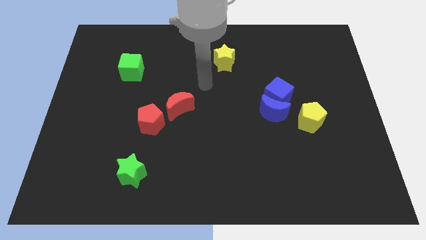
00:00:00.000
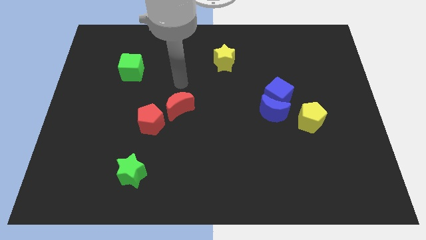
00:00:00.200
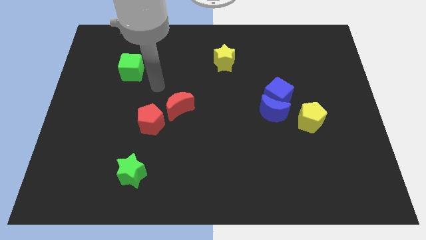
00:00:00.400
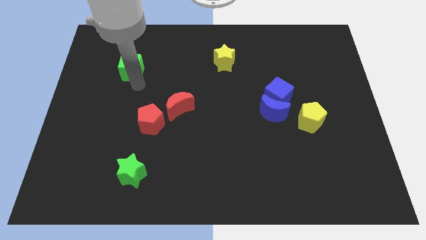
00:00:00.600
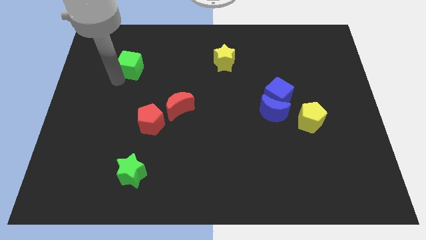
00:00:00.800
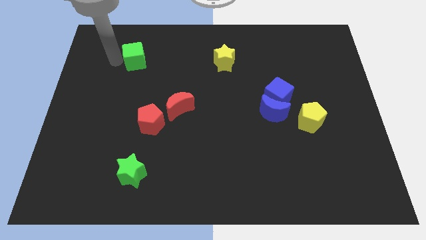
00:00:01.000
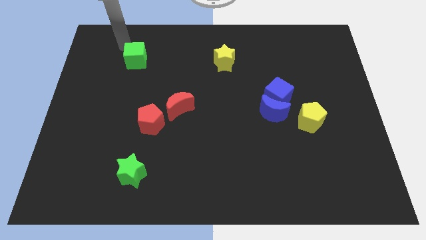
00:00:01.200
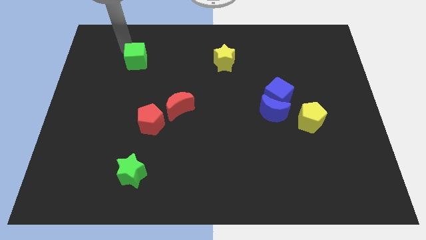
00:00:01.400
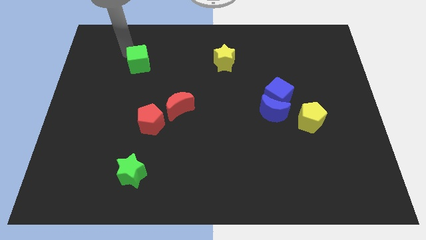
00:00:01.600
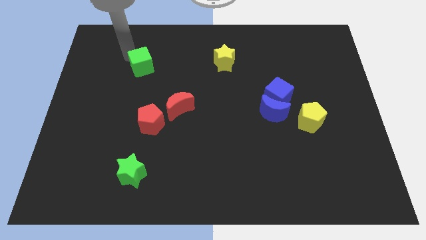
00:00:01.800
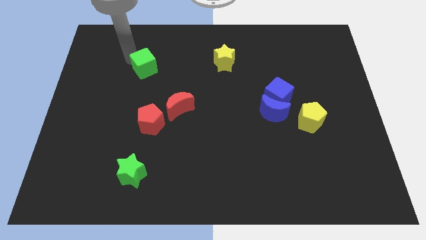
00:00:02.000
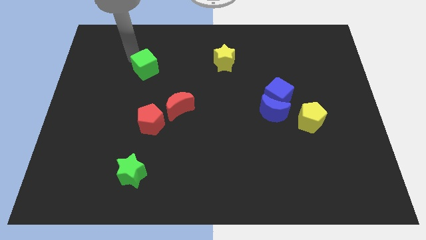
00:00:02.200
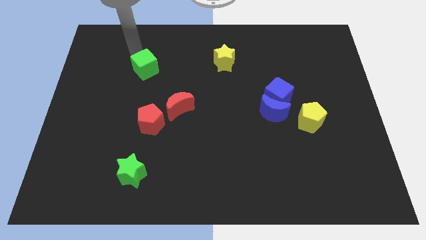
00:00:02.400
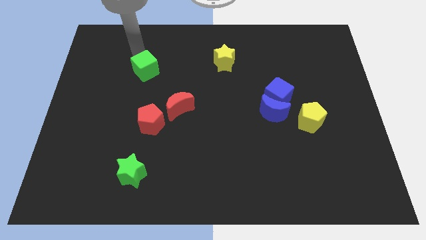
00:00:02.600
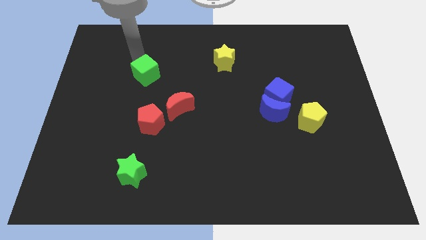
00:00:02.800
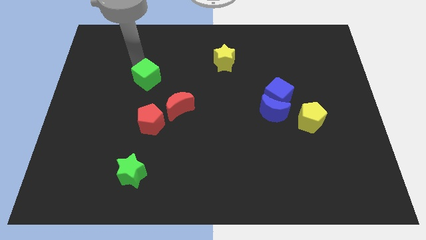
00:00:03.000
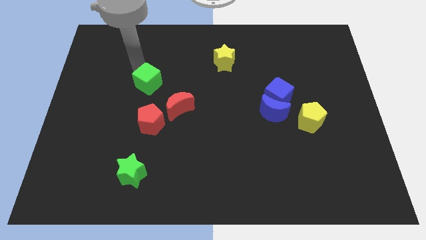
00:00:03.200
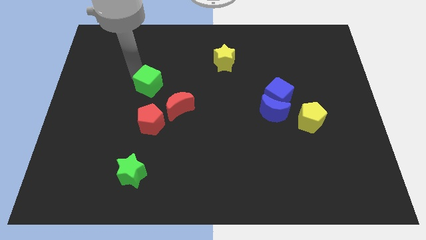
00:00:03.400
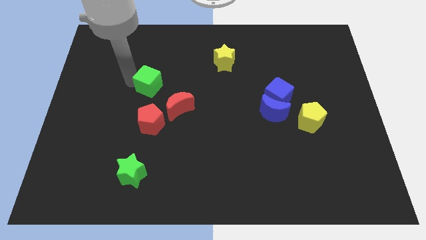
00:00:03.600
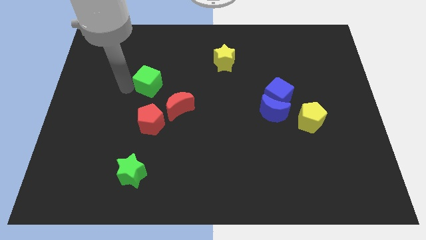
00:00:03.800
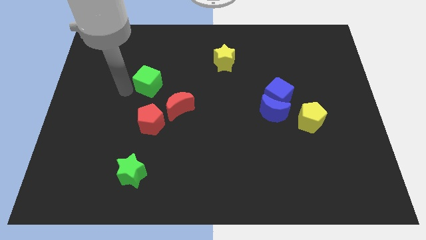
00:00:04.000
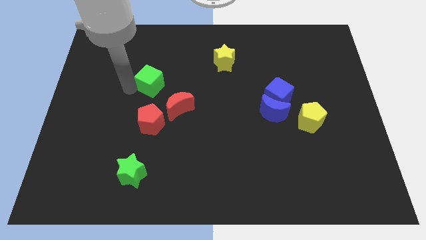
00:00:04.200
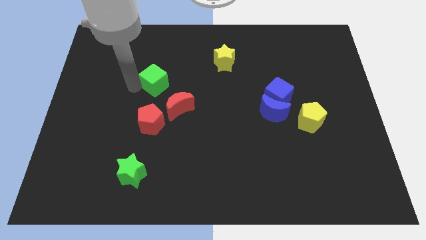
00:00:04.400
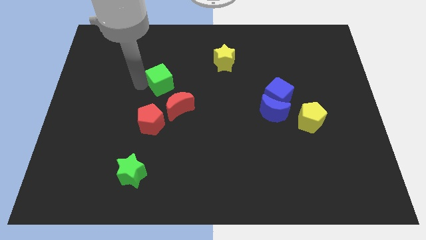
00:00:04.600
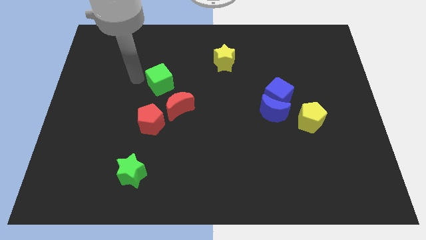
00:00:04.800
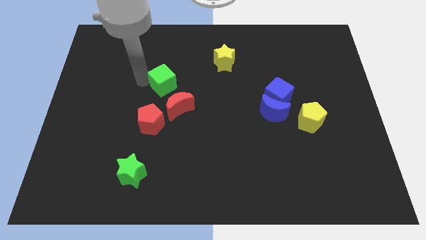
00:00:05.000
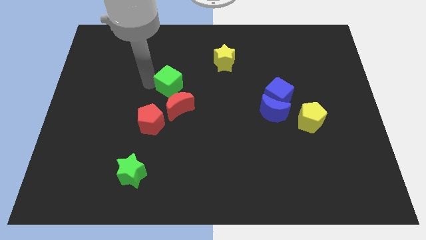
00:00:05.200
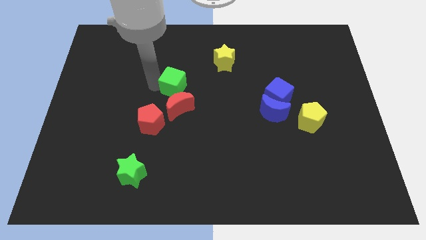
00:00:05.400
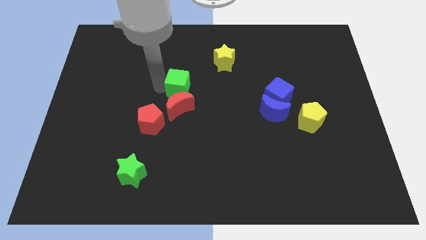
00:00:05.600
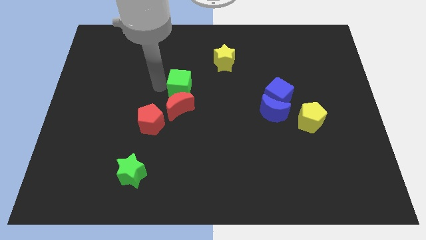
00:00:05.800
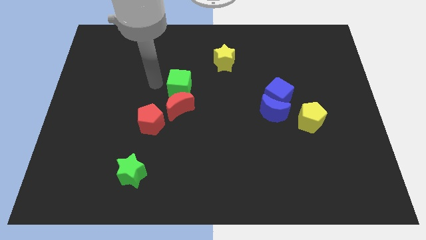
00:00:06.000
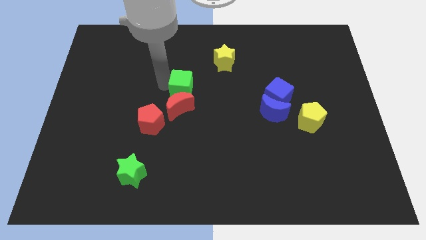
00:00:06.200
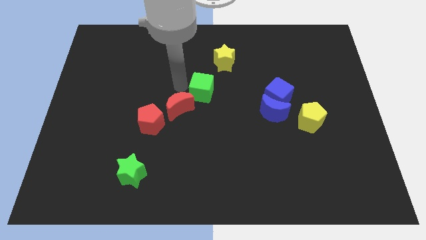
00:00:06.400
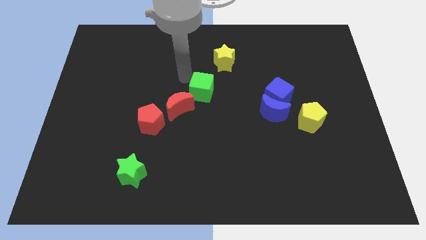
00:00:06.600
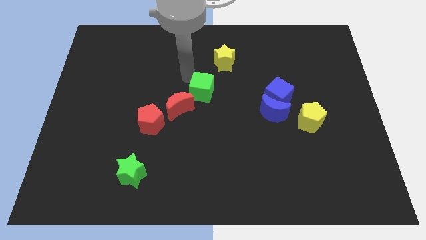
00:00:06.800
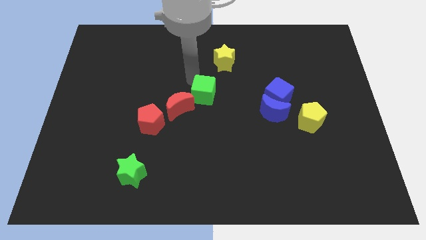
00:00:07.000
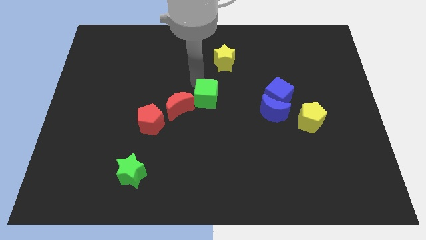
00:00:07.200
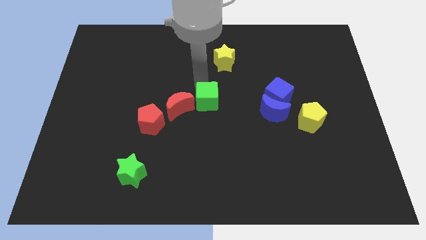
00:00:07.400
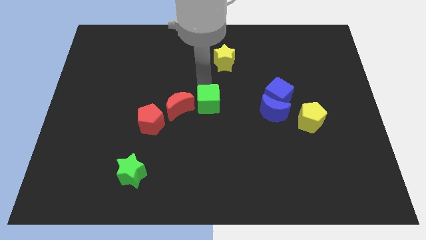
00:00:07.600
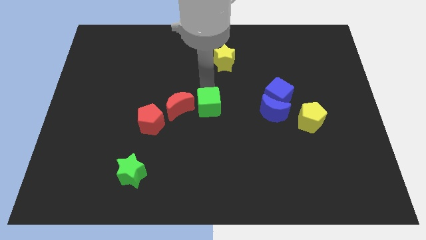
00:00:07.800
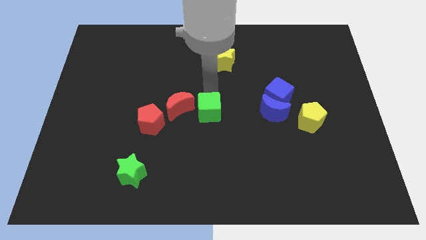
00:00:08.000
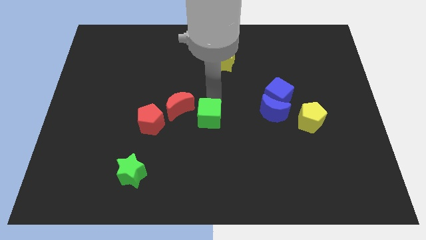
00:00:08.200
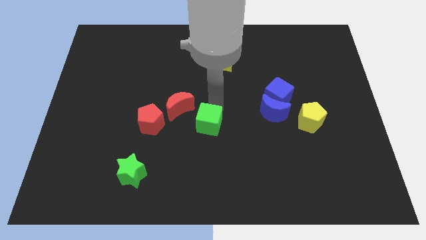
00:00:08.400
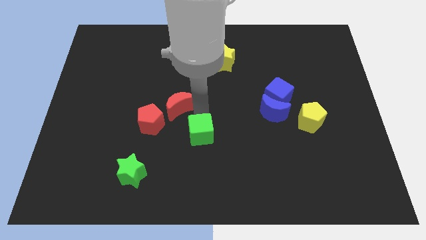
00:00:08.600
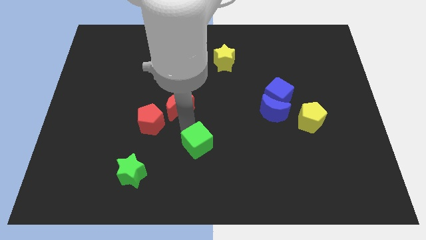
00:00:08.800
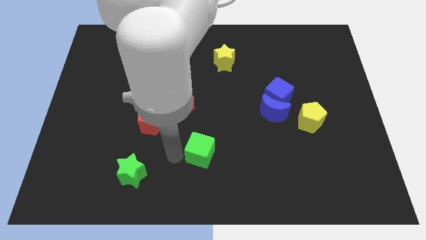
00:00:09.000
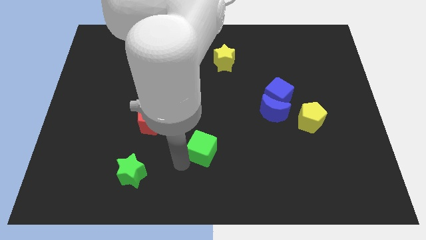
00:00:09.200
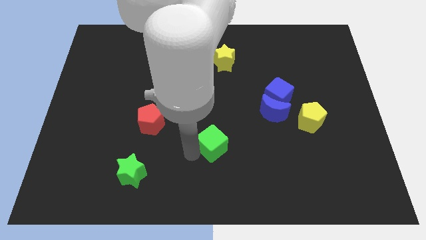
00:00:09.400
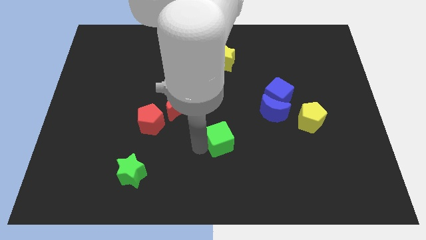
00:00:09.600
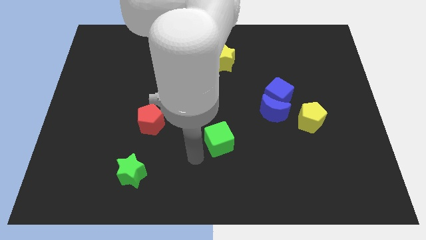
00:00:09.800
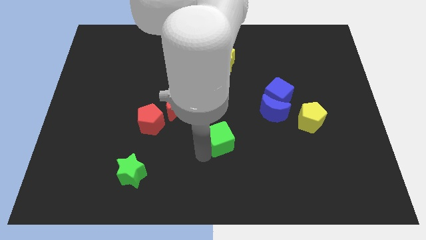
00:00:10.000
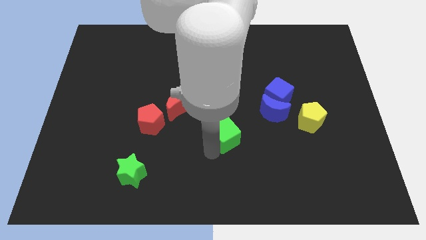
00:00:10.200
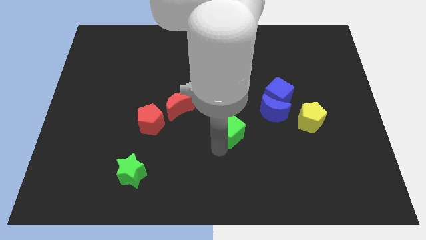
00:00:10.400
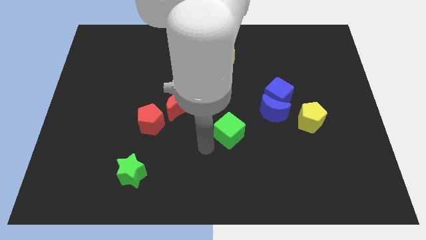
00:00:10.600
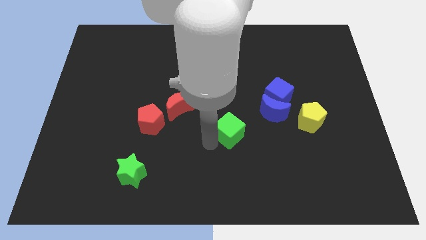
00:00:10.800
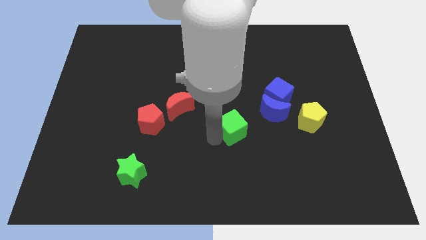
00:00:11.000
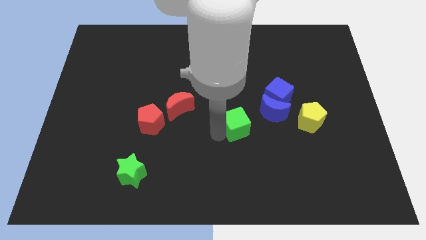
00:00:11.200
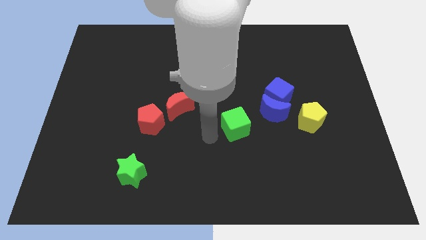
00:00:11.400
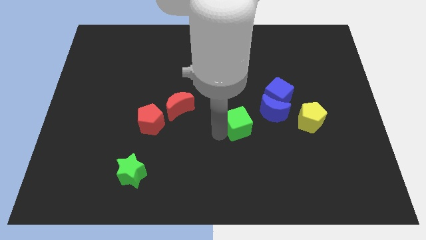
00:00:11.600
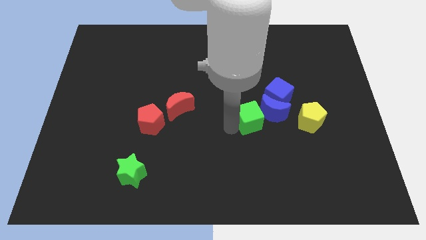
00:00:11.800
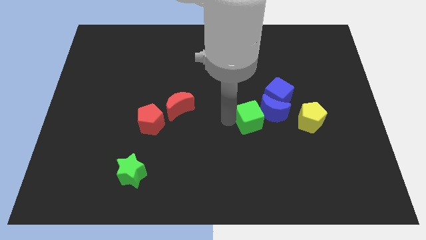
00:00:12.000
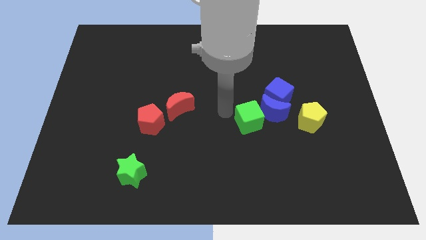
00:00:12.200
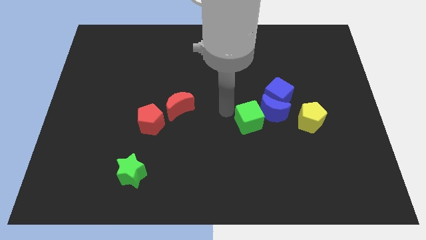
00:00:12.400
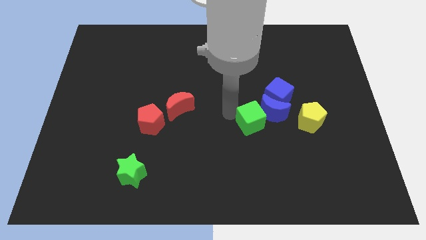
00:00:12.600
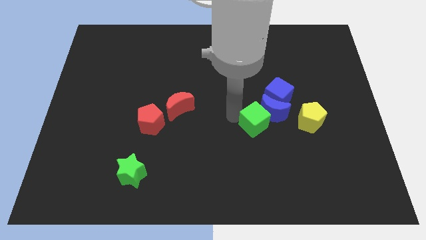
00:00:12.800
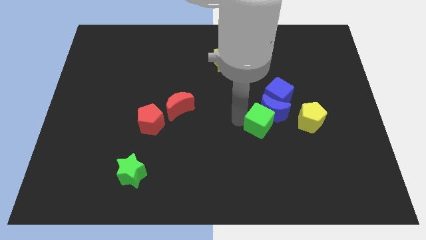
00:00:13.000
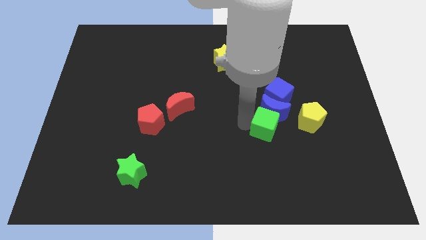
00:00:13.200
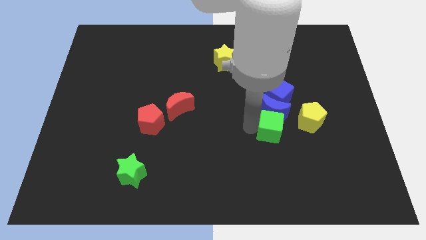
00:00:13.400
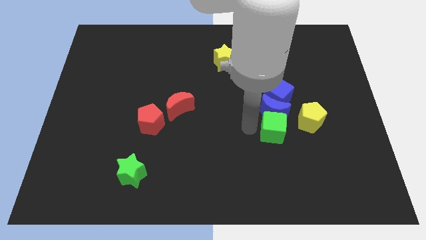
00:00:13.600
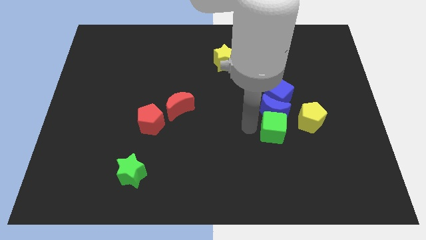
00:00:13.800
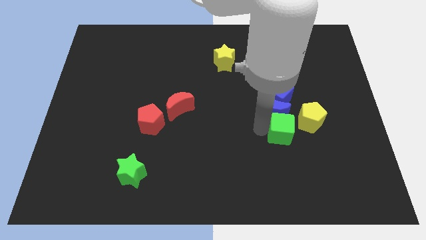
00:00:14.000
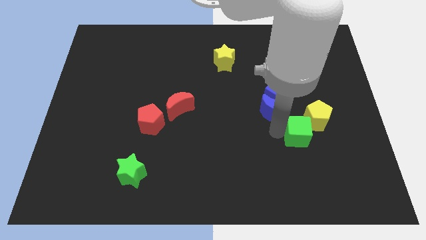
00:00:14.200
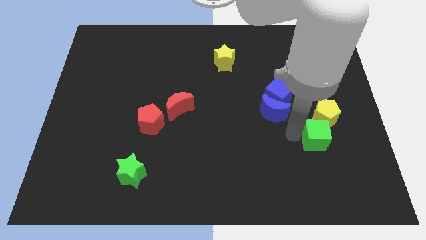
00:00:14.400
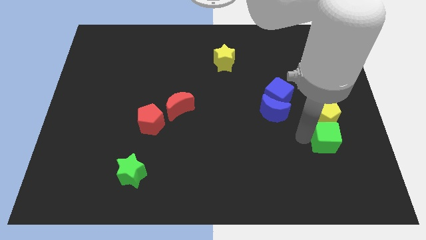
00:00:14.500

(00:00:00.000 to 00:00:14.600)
move the green cube diagonally down and to the right of the yellow pentagon
